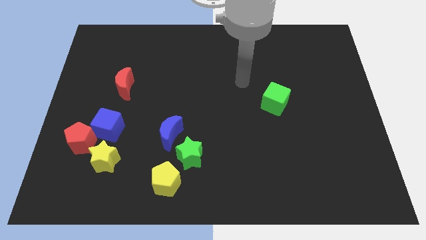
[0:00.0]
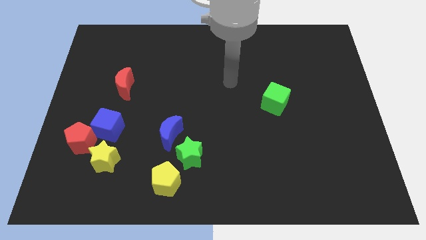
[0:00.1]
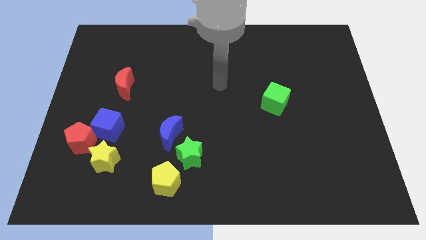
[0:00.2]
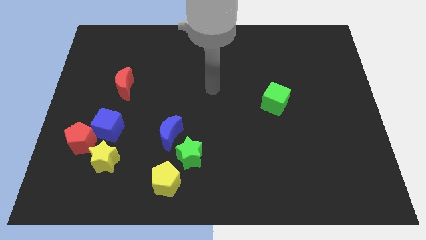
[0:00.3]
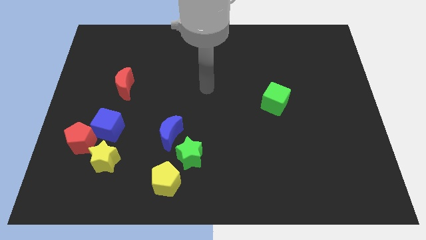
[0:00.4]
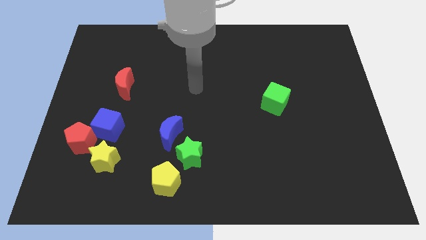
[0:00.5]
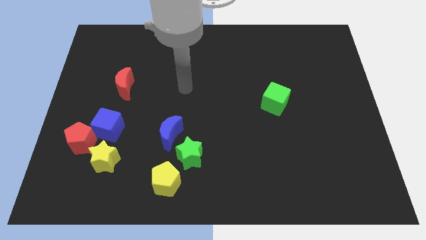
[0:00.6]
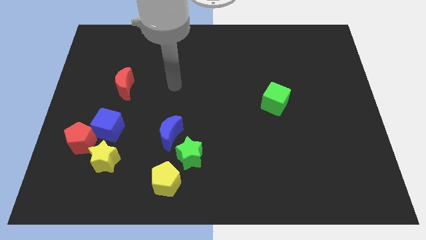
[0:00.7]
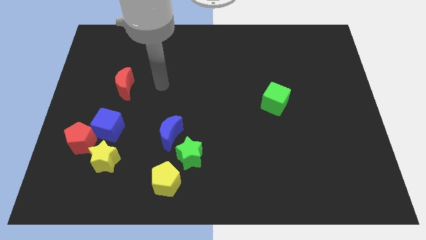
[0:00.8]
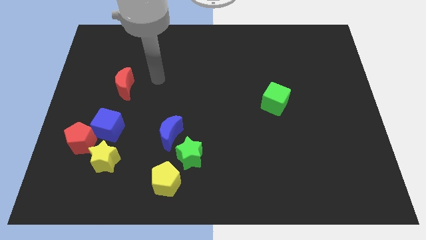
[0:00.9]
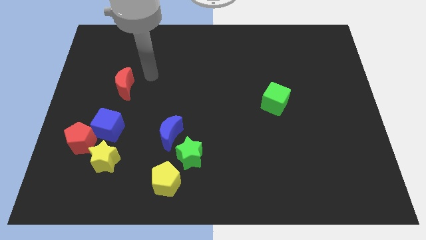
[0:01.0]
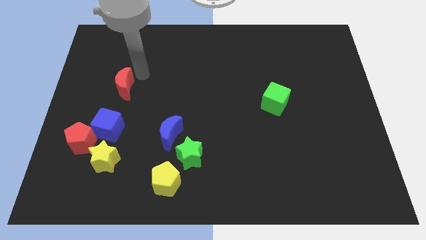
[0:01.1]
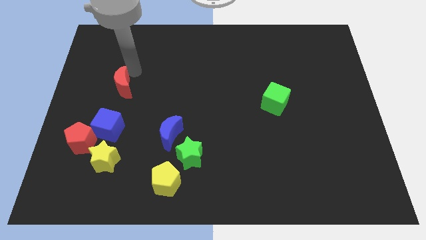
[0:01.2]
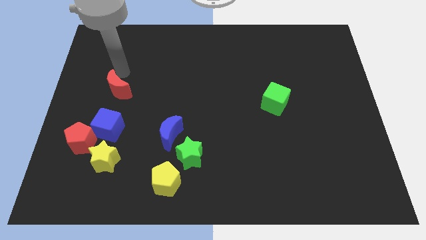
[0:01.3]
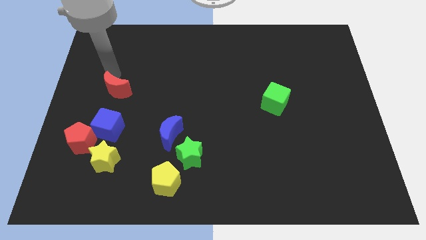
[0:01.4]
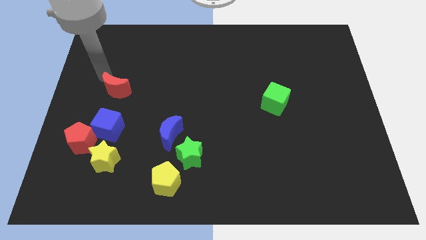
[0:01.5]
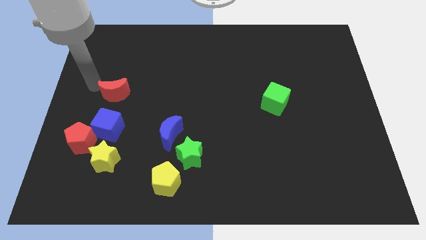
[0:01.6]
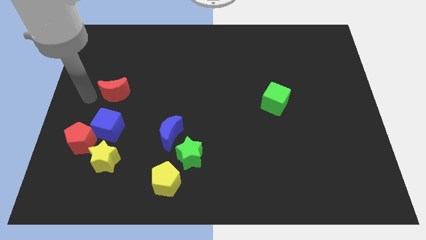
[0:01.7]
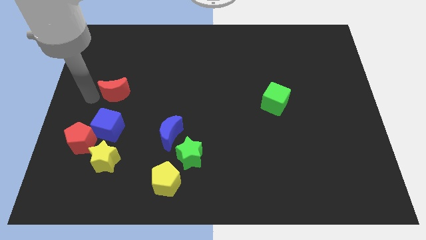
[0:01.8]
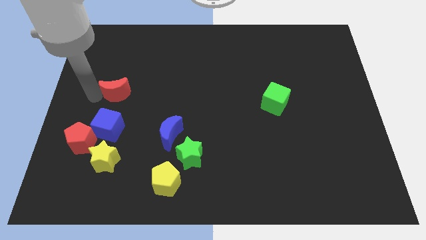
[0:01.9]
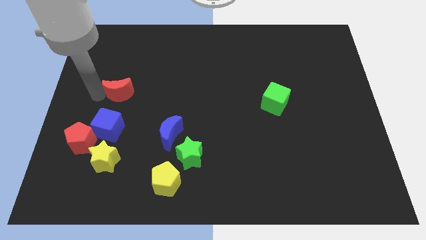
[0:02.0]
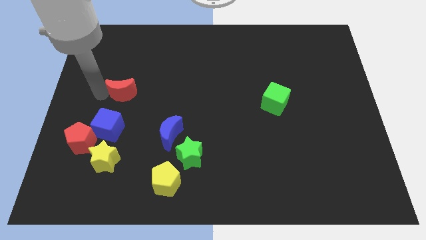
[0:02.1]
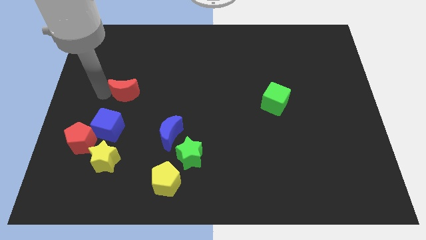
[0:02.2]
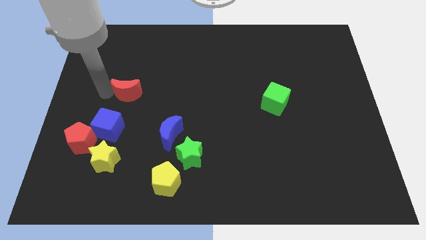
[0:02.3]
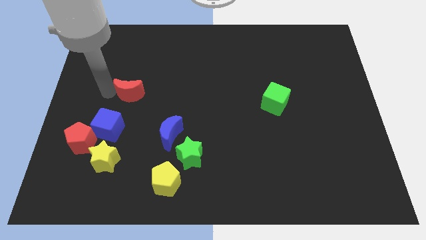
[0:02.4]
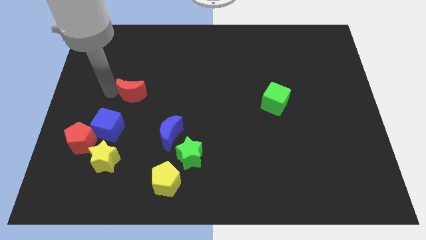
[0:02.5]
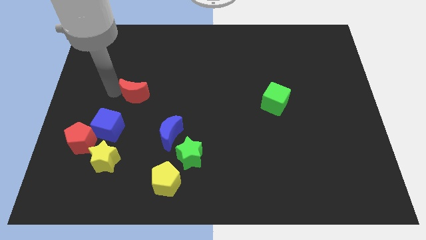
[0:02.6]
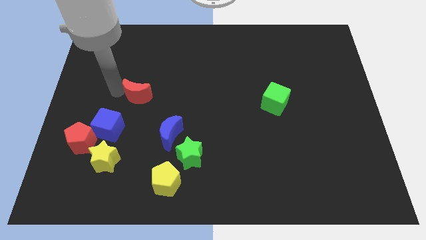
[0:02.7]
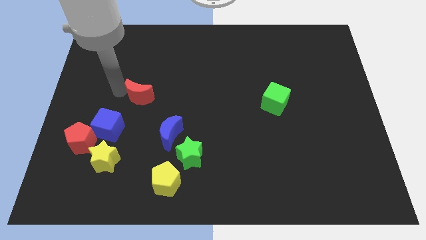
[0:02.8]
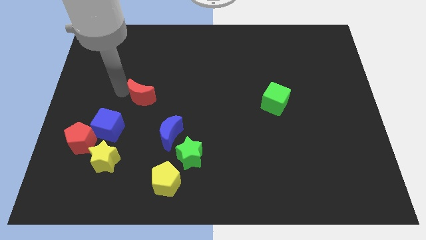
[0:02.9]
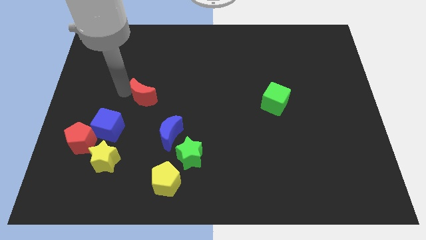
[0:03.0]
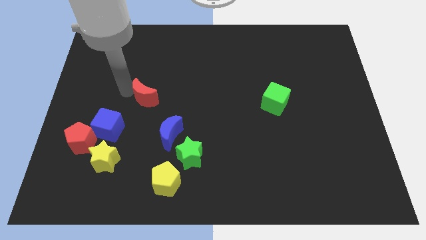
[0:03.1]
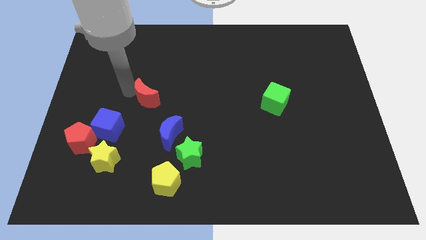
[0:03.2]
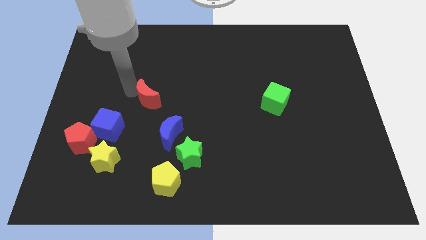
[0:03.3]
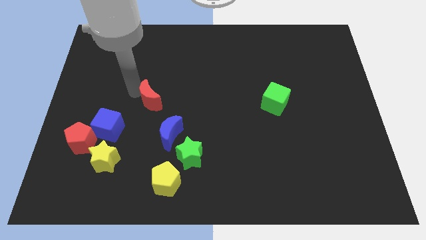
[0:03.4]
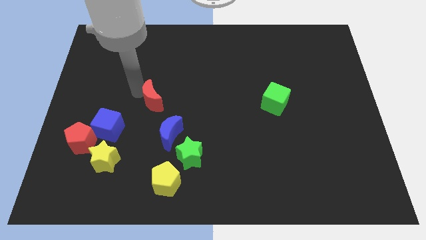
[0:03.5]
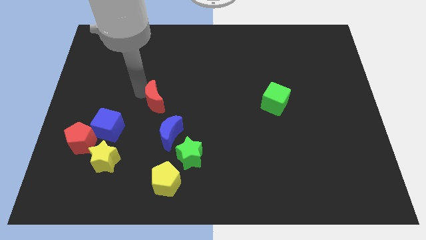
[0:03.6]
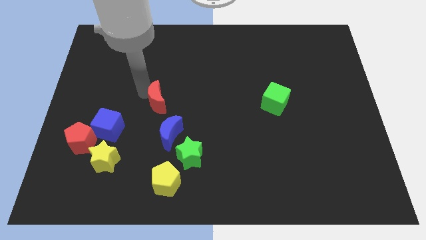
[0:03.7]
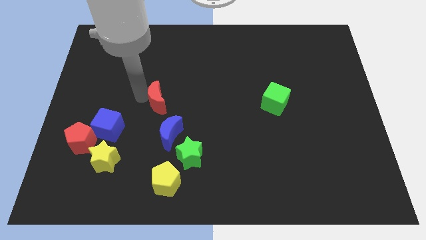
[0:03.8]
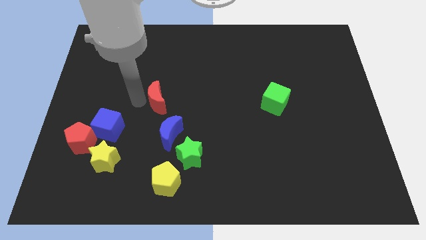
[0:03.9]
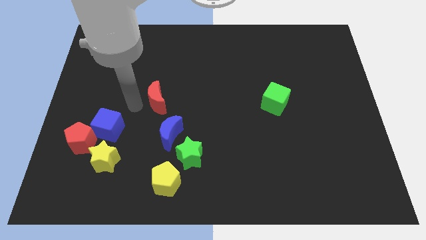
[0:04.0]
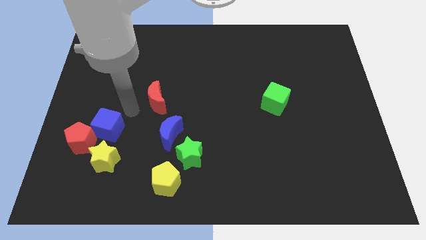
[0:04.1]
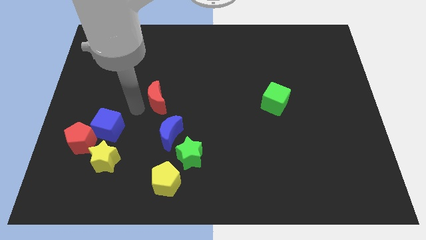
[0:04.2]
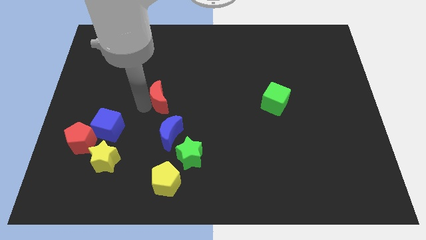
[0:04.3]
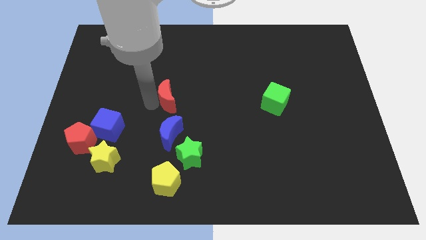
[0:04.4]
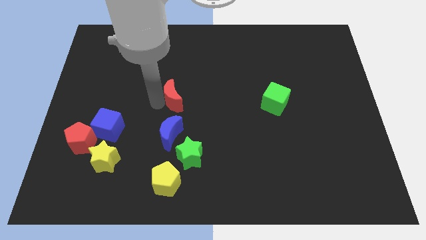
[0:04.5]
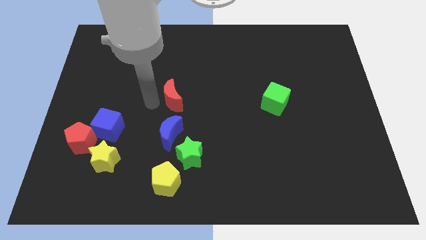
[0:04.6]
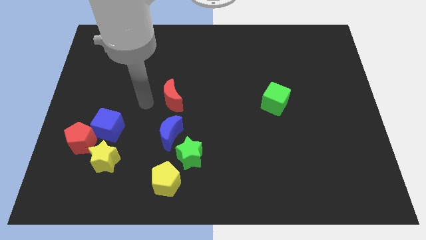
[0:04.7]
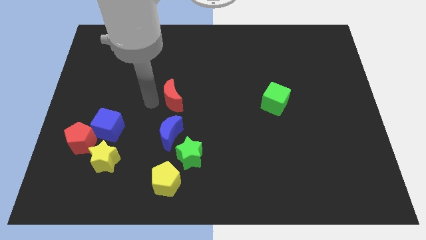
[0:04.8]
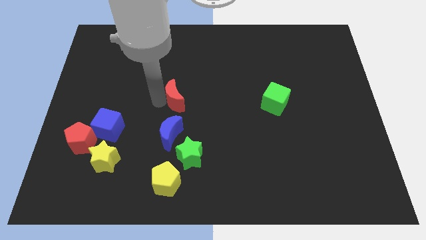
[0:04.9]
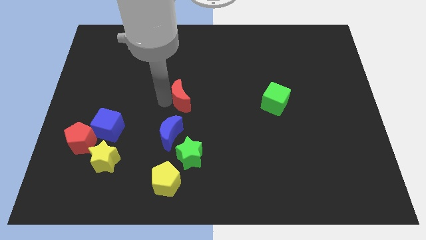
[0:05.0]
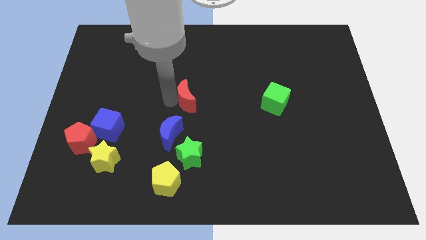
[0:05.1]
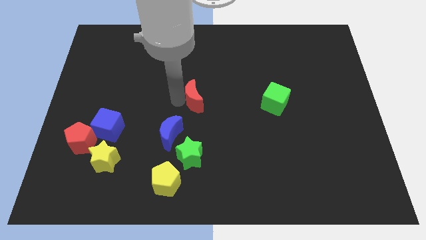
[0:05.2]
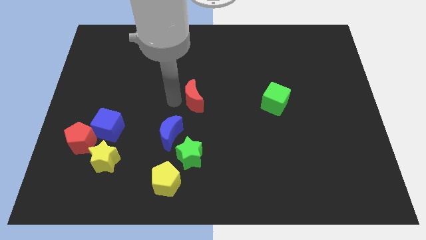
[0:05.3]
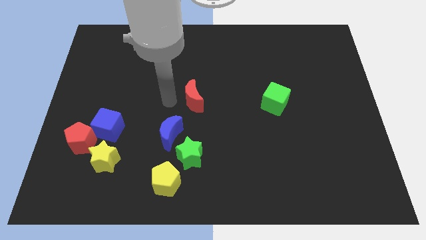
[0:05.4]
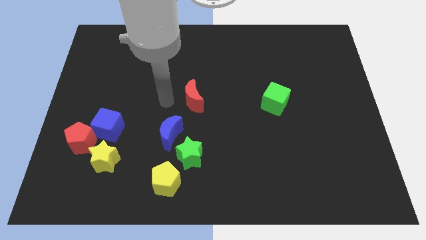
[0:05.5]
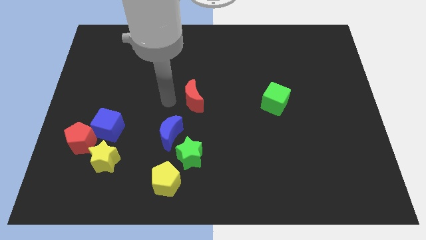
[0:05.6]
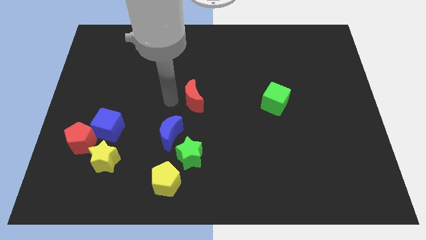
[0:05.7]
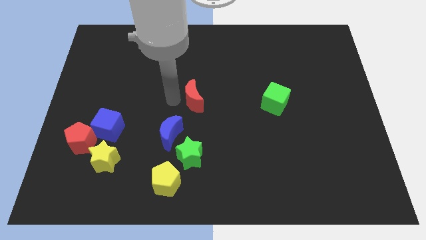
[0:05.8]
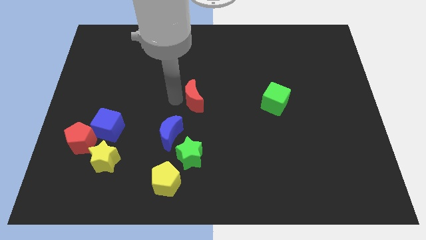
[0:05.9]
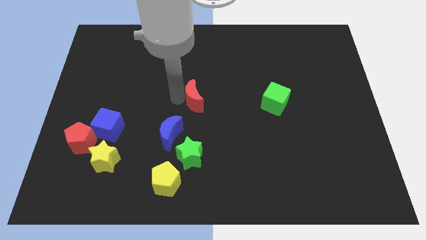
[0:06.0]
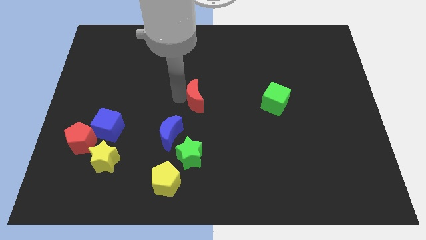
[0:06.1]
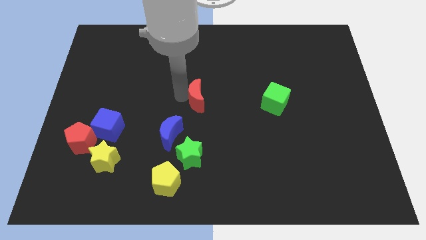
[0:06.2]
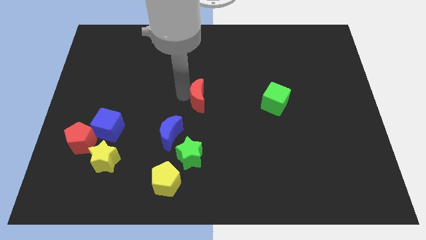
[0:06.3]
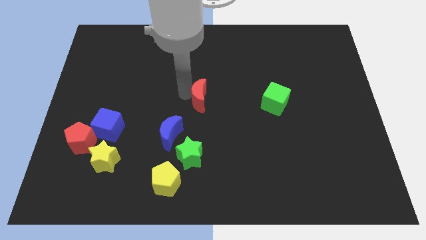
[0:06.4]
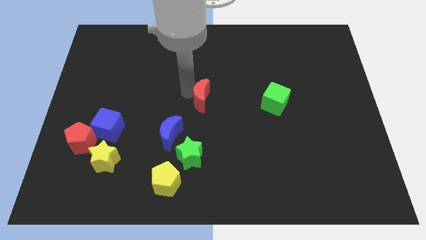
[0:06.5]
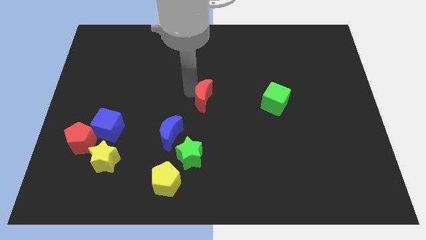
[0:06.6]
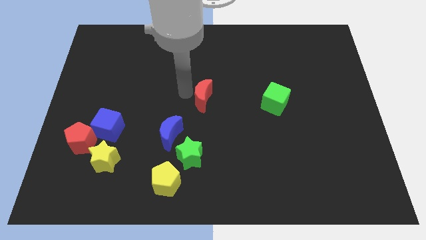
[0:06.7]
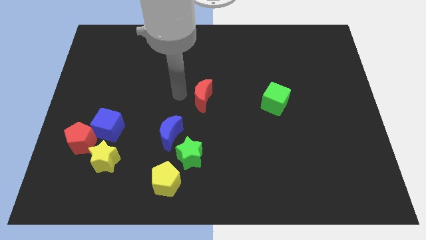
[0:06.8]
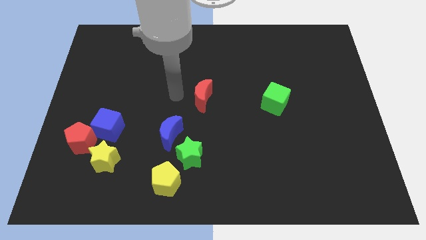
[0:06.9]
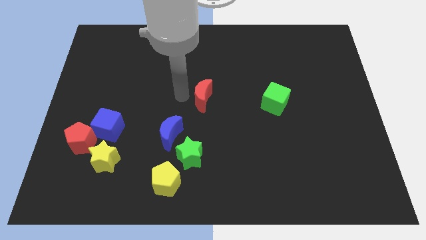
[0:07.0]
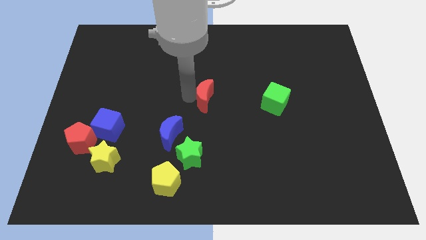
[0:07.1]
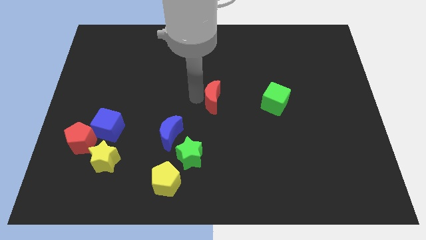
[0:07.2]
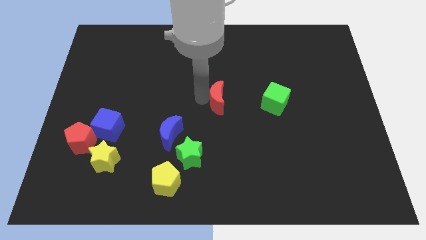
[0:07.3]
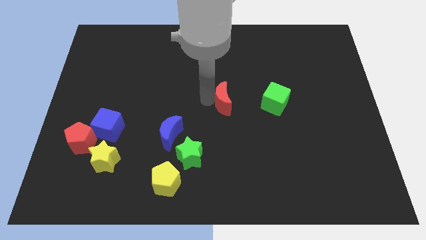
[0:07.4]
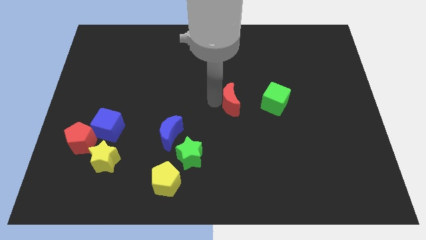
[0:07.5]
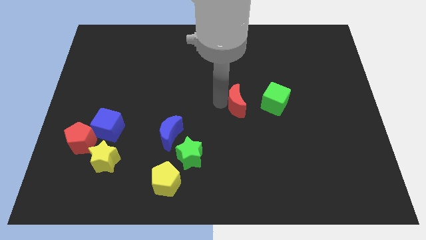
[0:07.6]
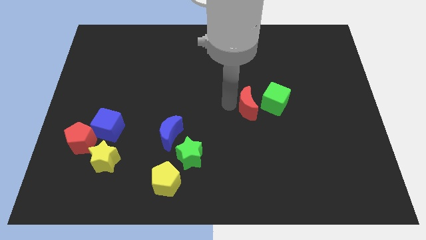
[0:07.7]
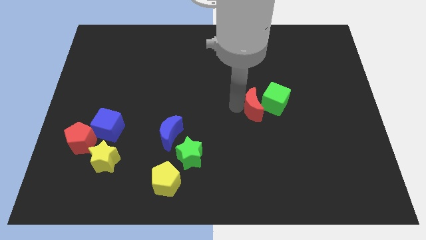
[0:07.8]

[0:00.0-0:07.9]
move the red moon close to the green cube
